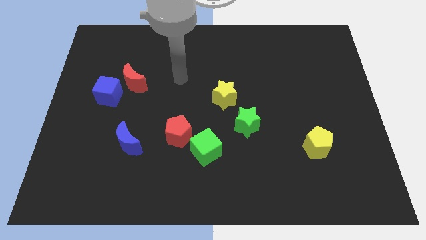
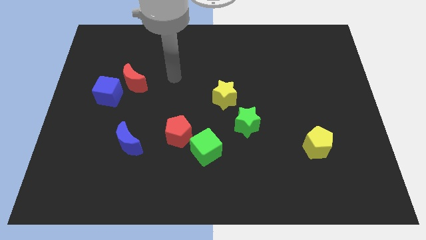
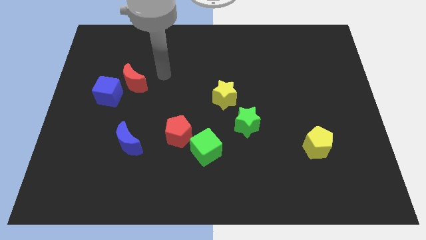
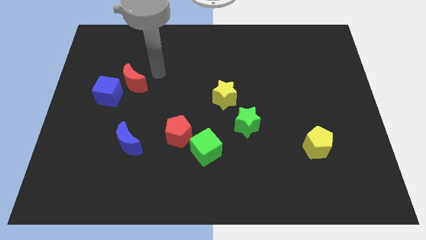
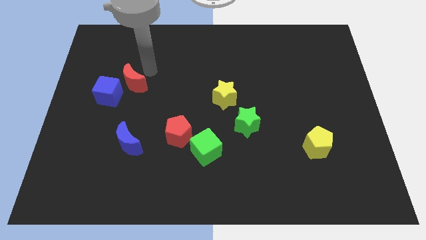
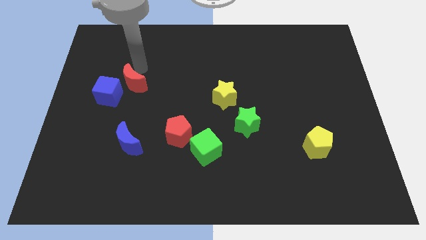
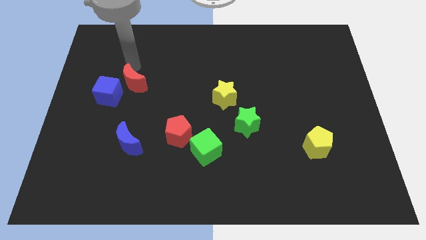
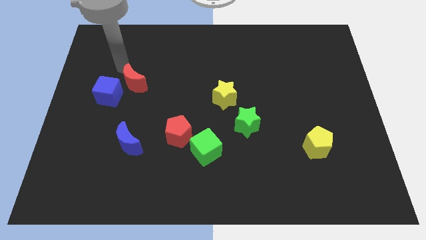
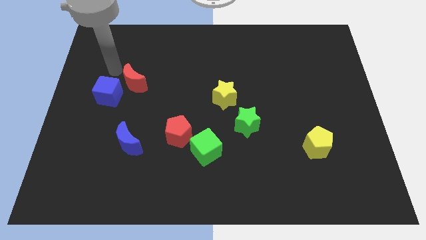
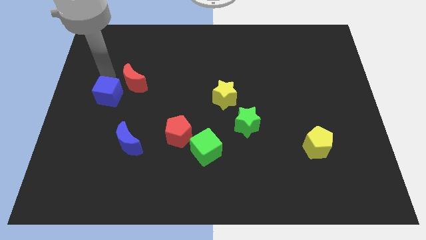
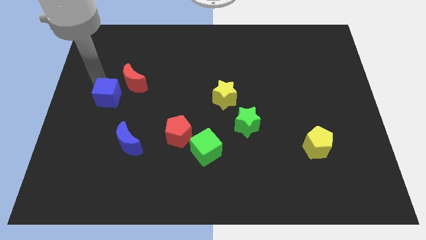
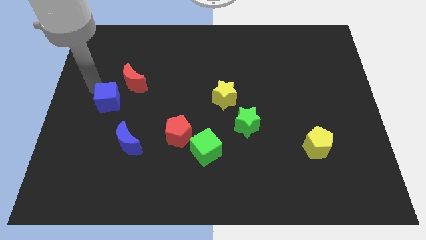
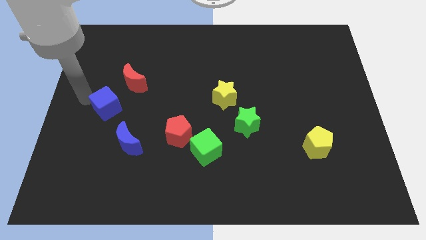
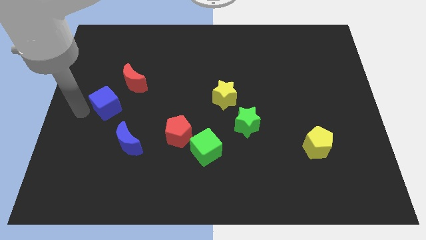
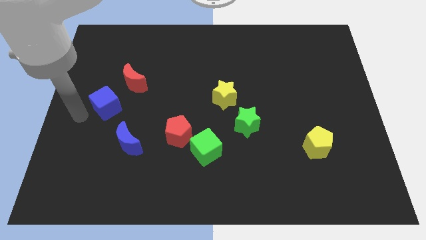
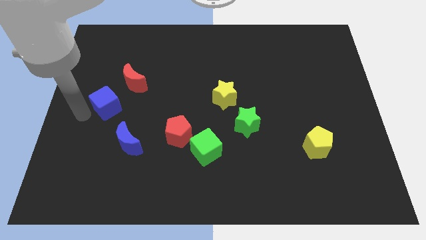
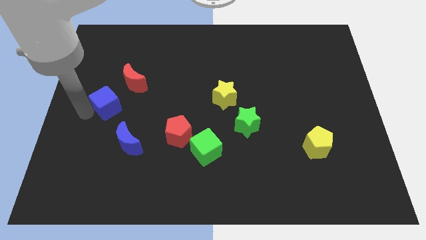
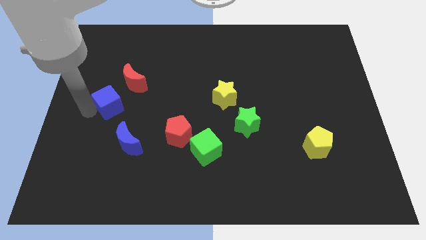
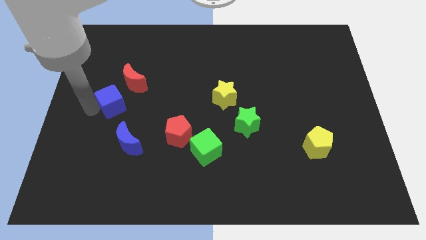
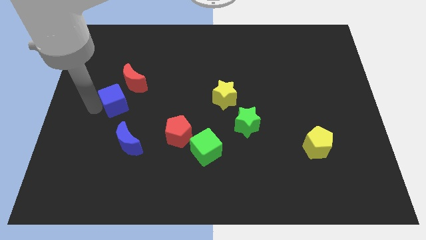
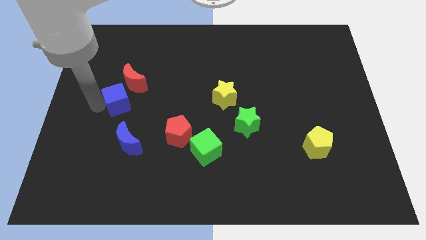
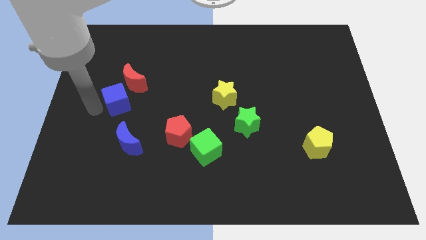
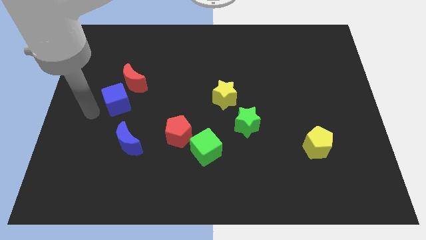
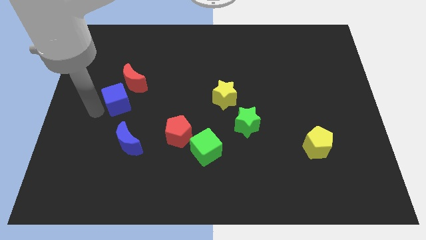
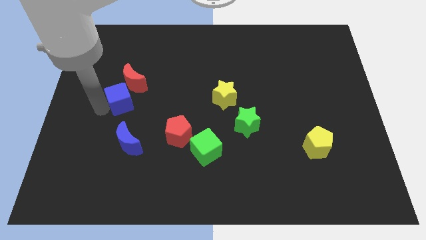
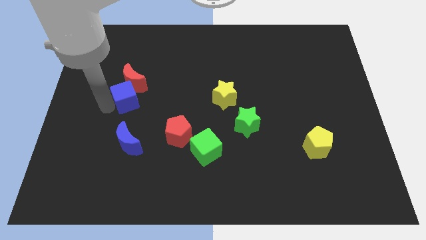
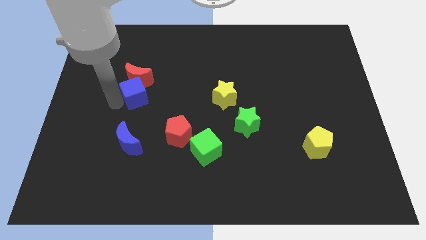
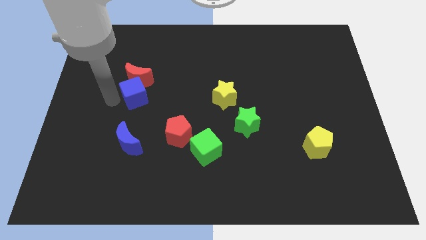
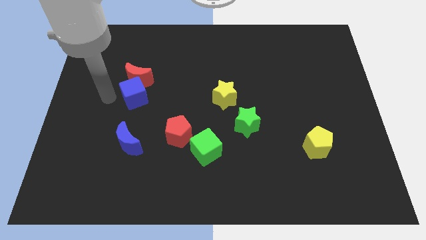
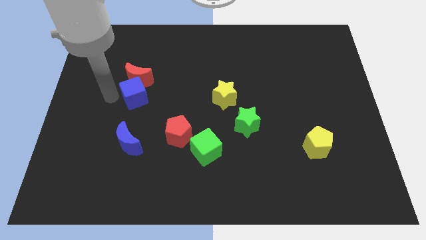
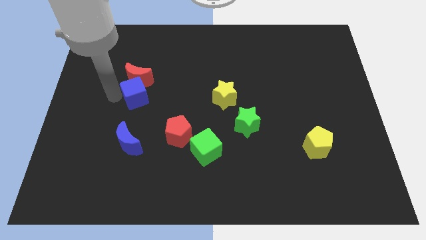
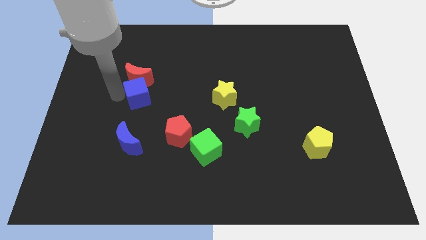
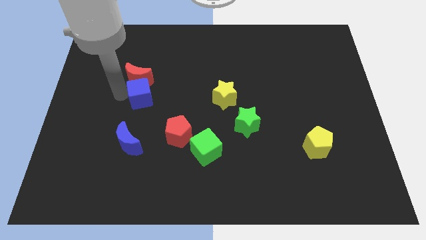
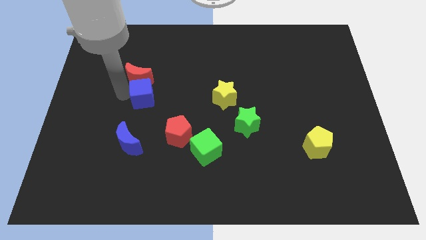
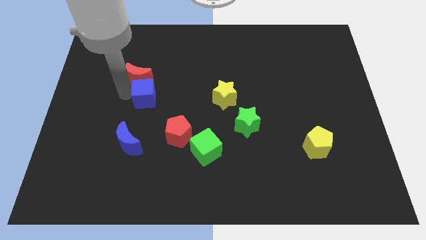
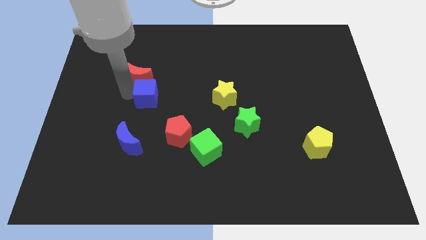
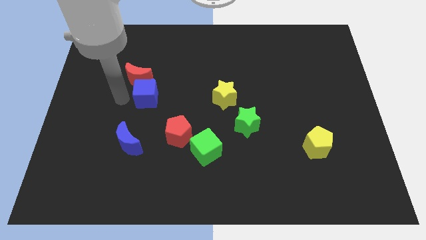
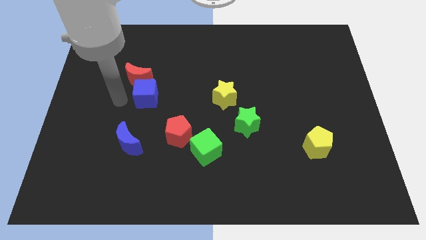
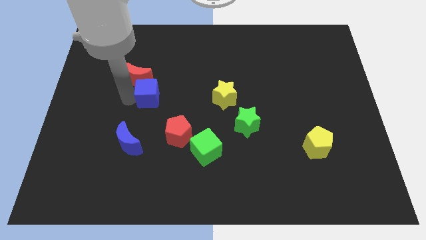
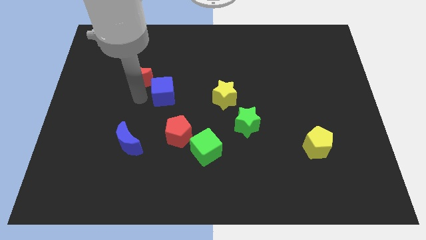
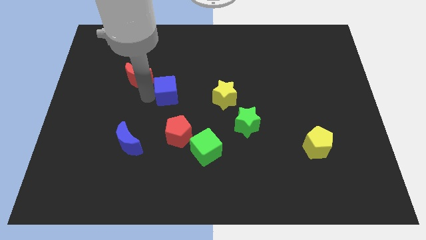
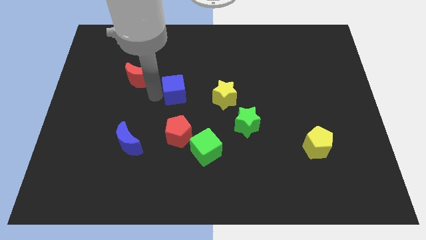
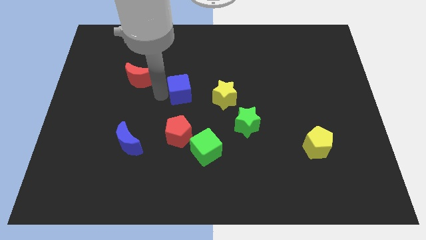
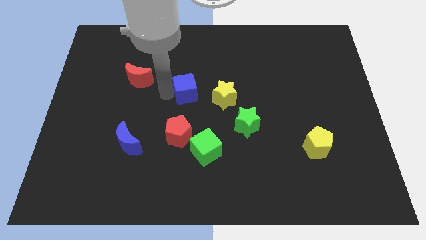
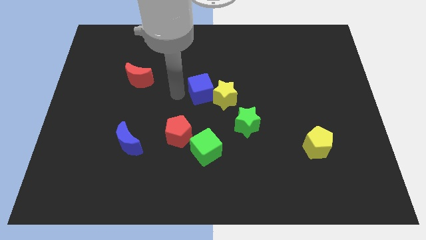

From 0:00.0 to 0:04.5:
slide the blue cube right

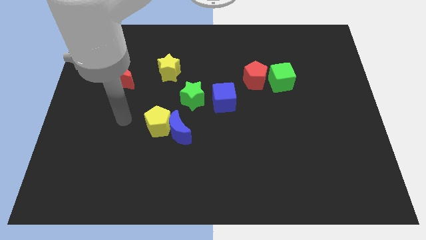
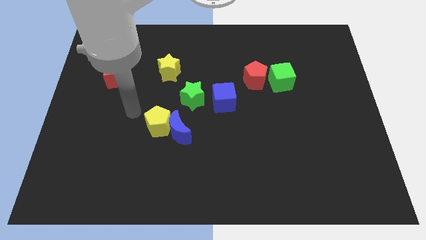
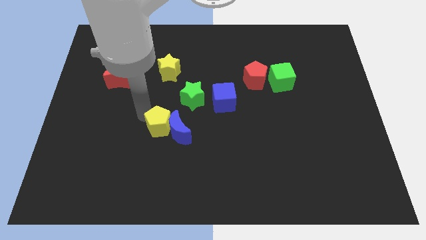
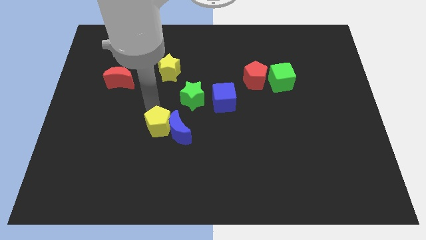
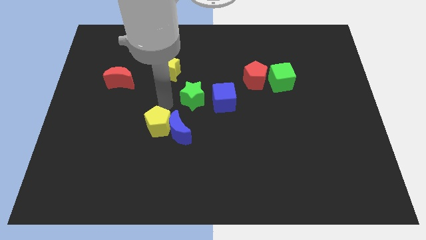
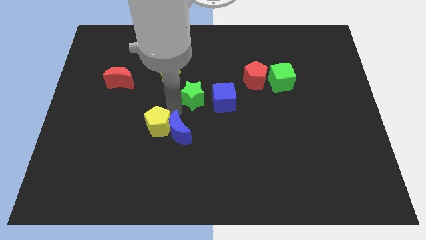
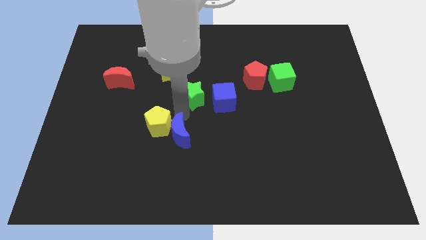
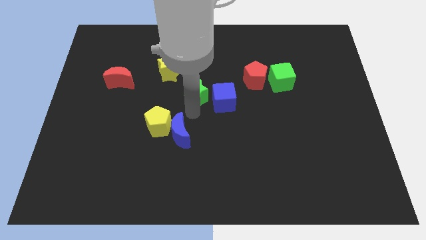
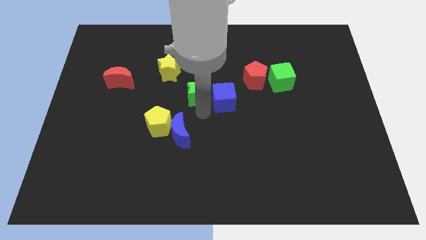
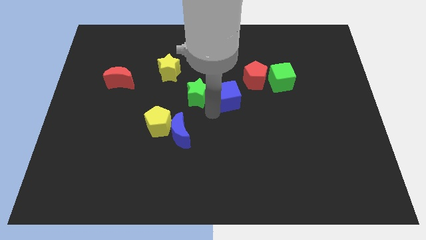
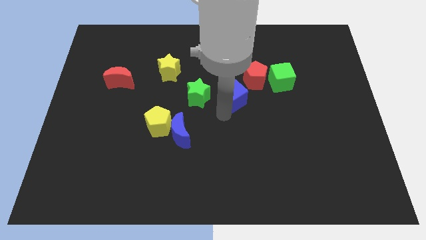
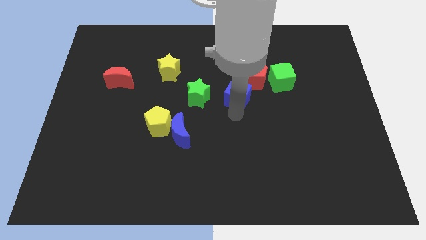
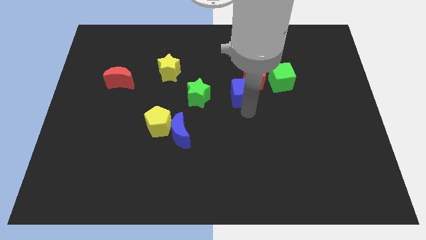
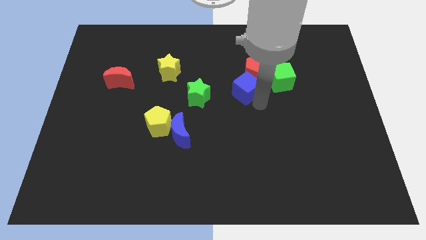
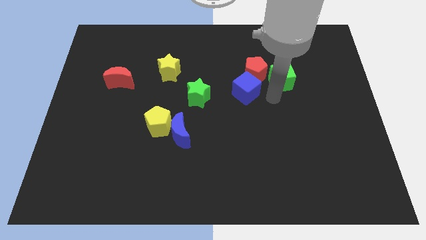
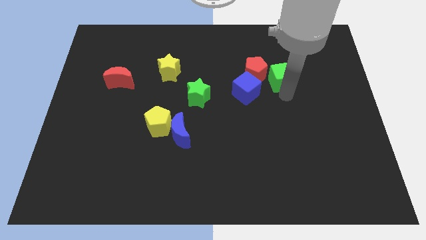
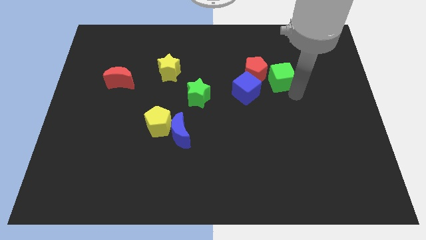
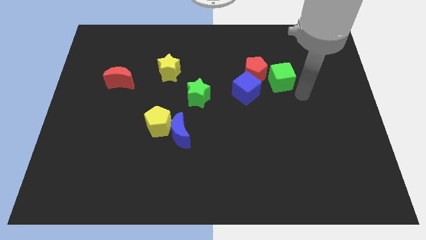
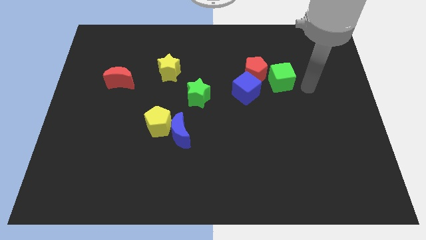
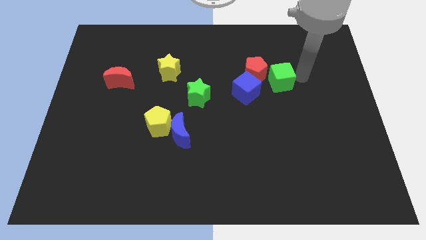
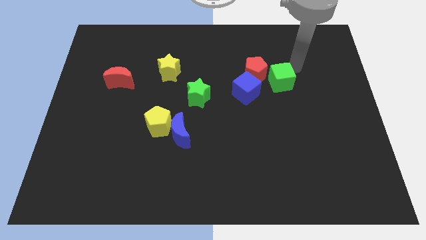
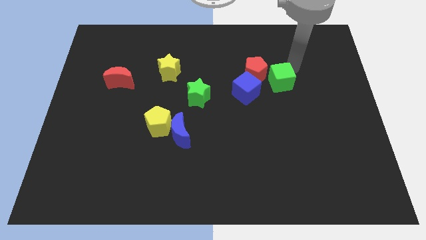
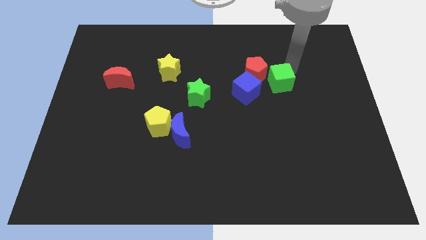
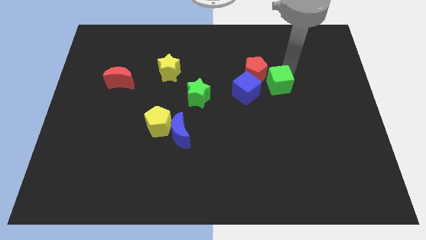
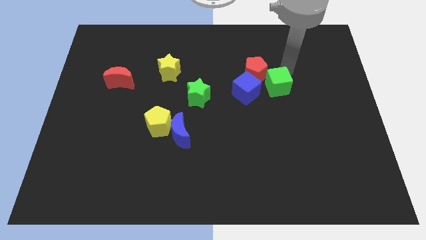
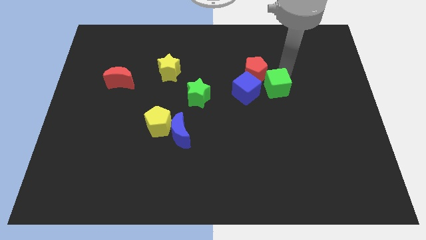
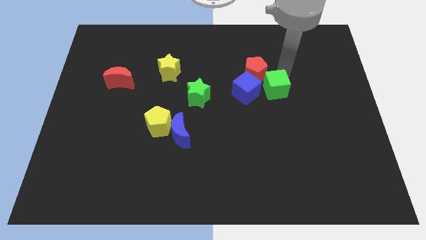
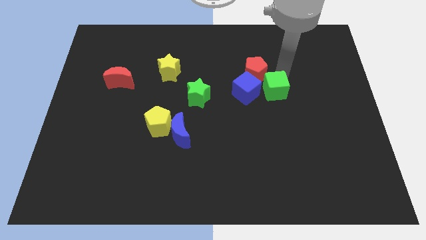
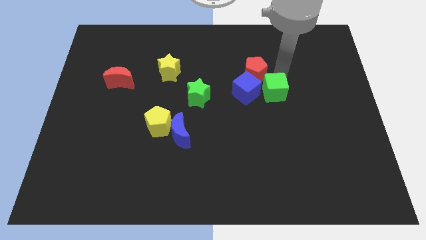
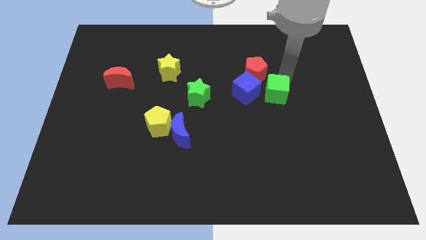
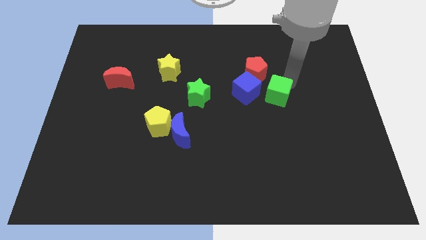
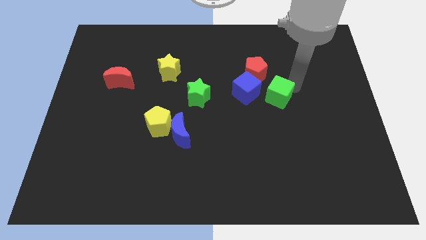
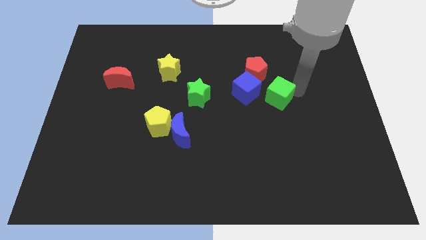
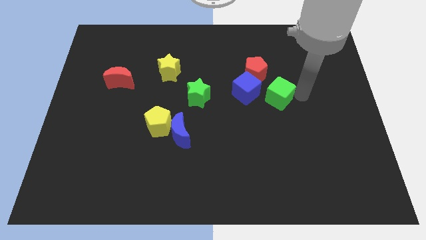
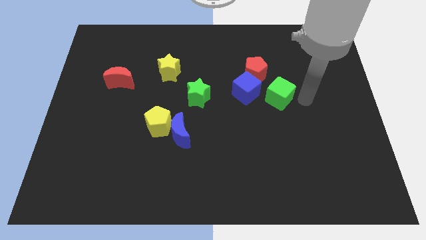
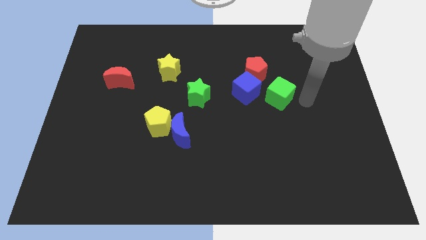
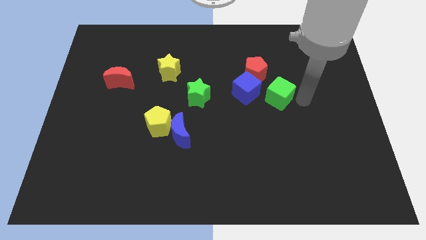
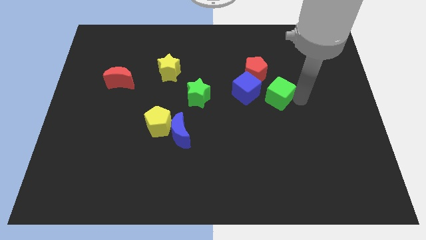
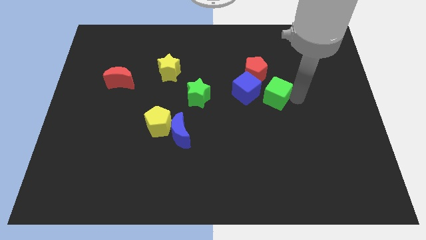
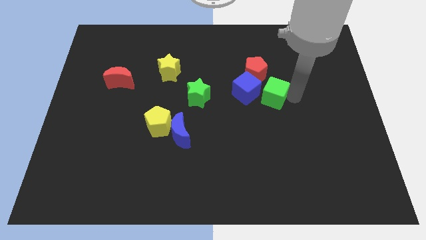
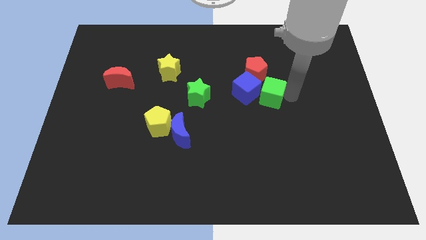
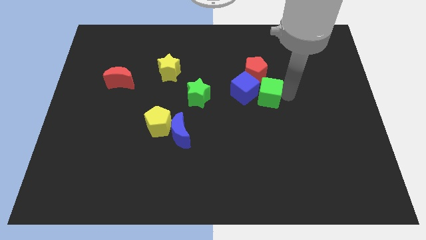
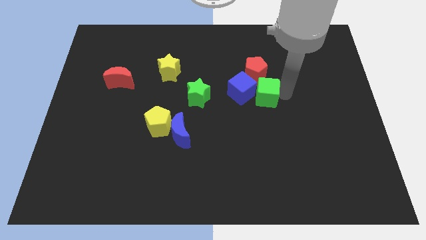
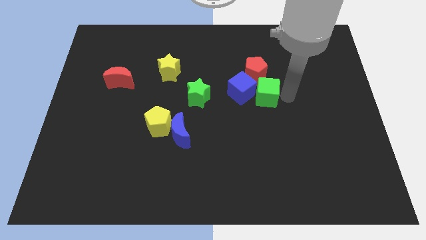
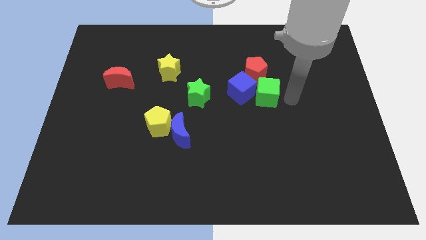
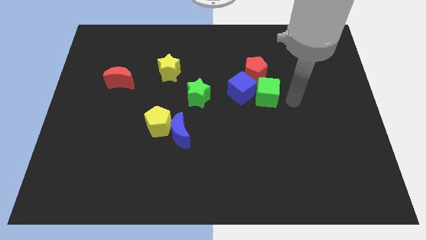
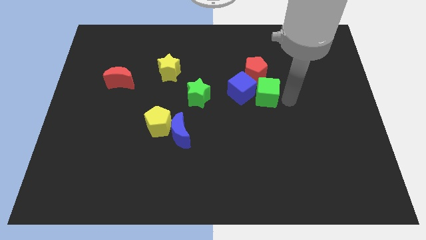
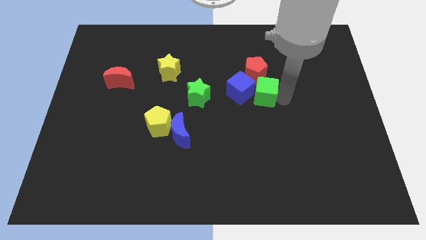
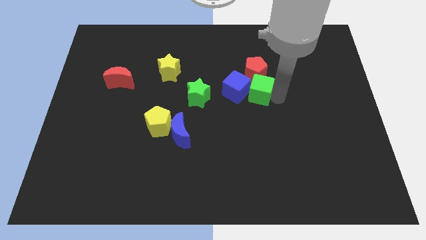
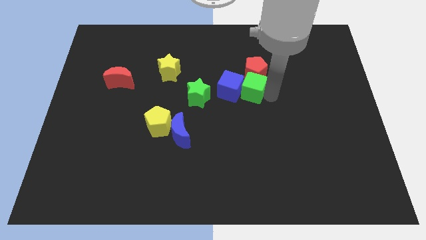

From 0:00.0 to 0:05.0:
slightly move the green cube to the left
